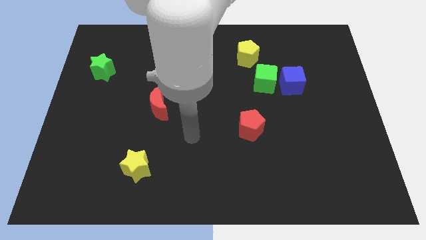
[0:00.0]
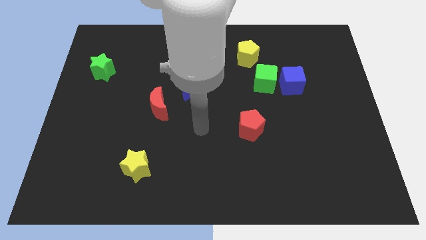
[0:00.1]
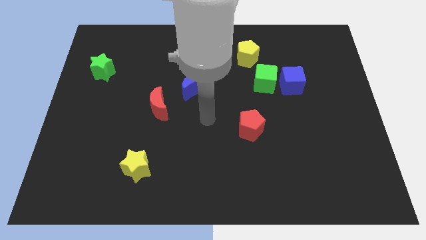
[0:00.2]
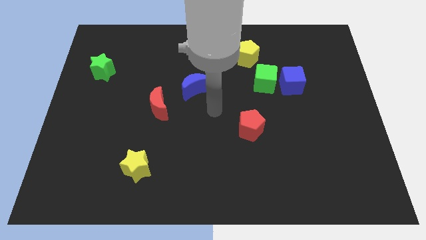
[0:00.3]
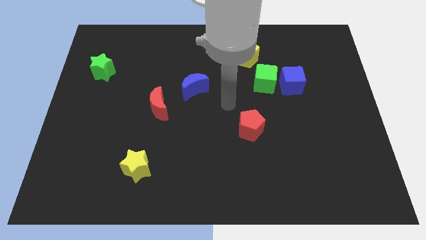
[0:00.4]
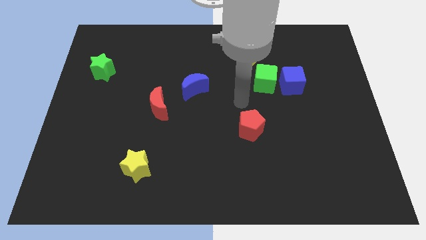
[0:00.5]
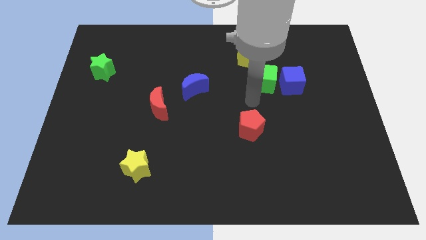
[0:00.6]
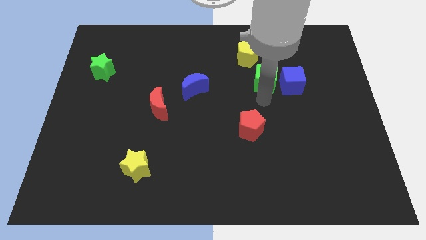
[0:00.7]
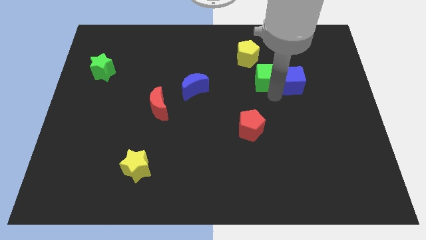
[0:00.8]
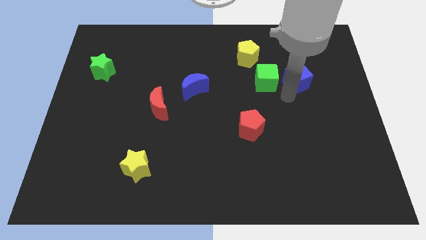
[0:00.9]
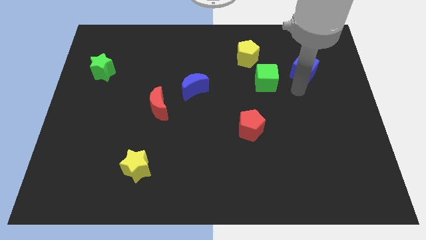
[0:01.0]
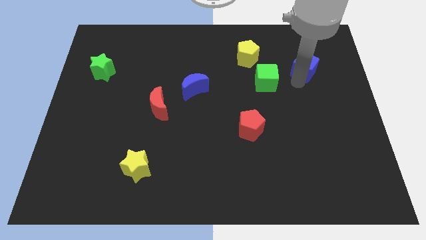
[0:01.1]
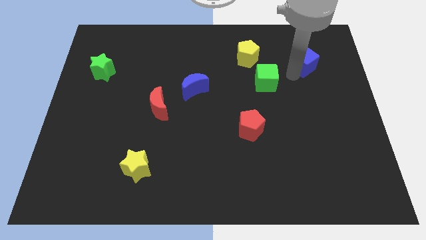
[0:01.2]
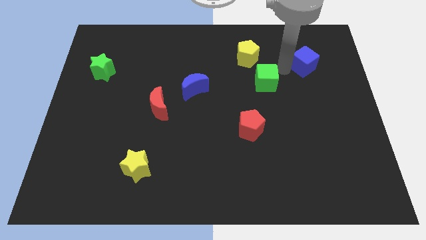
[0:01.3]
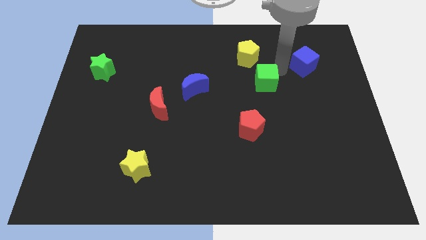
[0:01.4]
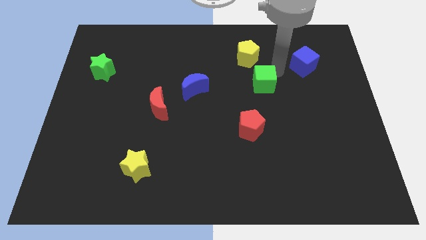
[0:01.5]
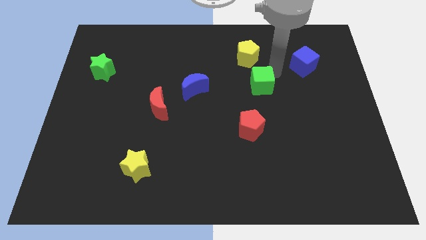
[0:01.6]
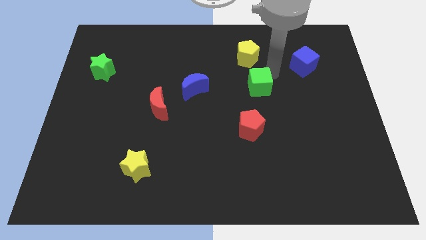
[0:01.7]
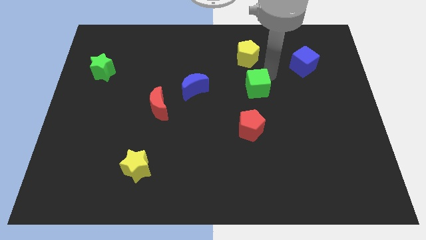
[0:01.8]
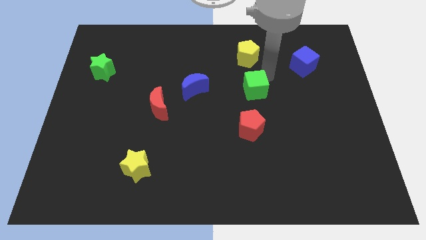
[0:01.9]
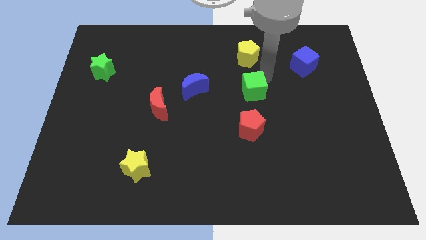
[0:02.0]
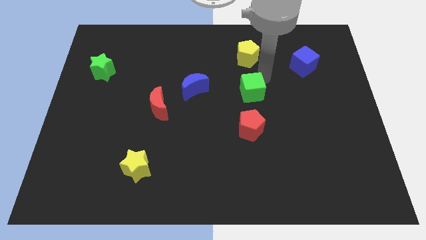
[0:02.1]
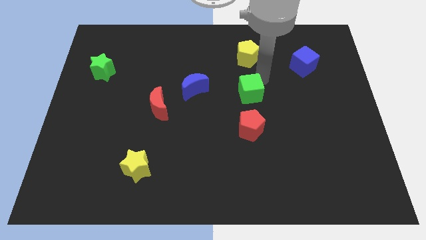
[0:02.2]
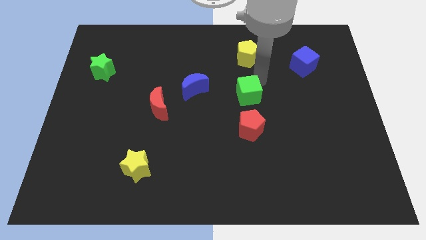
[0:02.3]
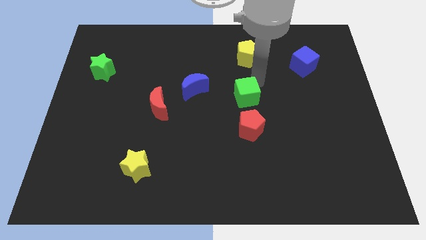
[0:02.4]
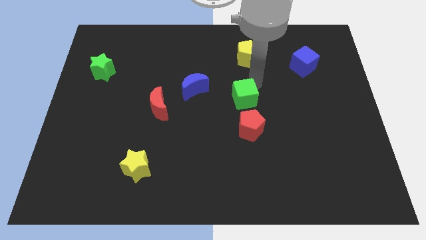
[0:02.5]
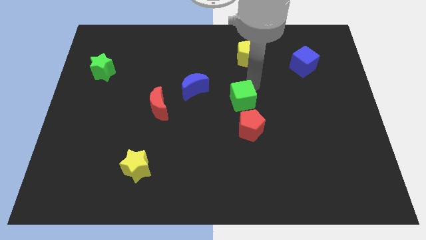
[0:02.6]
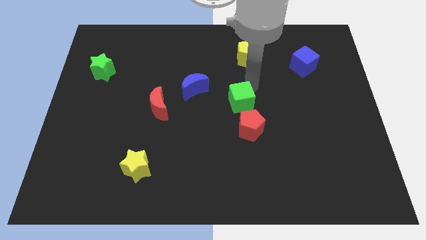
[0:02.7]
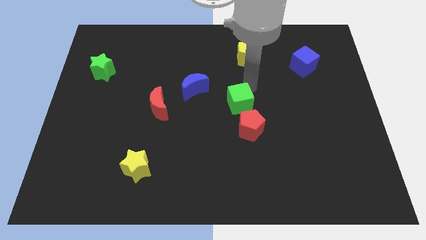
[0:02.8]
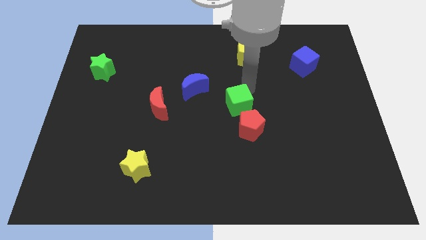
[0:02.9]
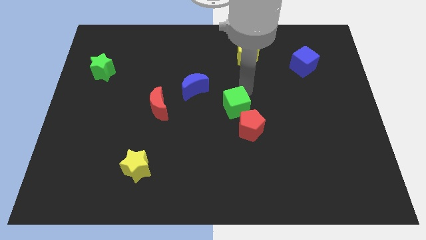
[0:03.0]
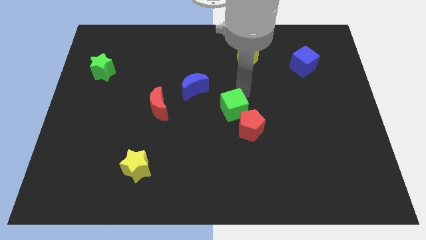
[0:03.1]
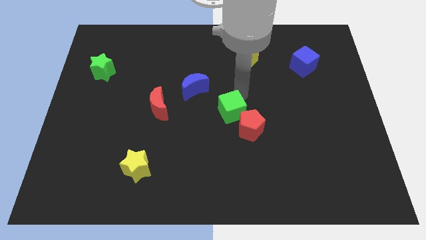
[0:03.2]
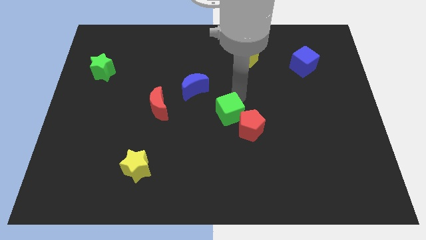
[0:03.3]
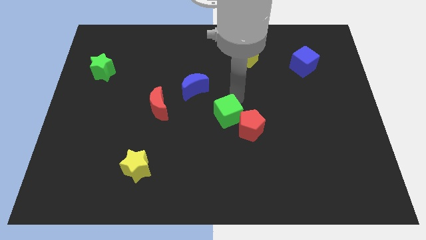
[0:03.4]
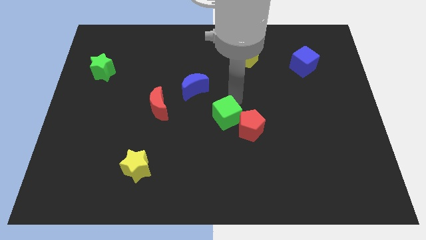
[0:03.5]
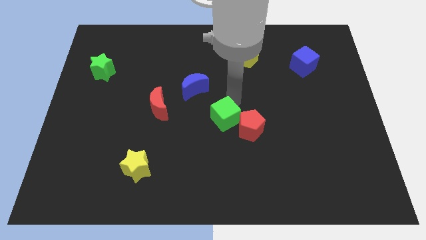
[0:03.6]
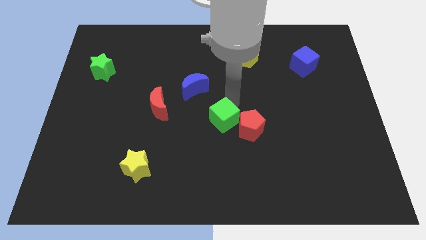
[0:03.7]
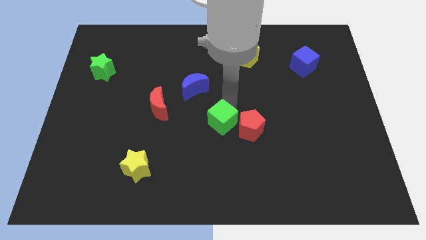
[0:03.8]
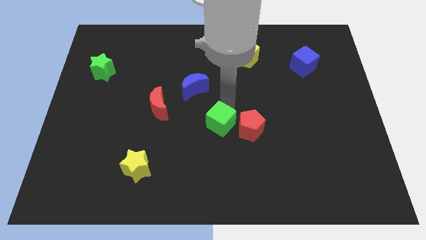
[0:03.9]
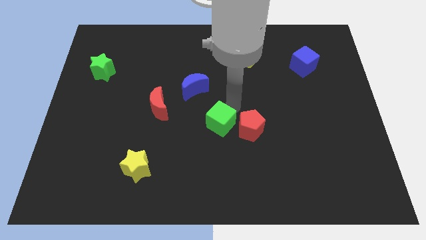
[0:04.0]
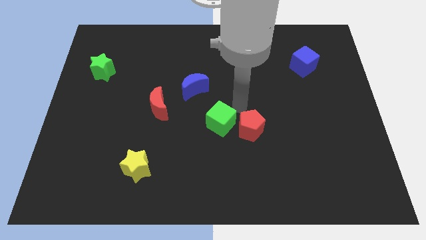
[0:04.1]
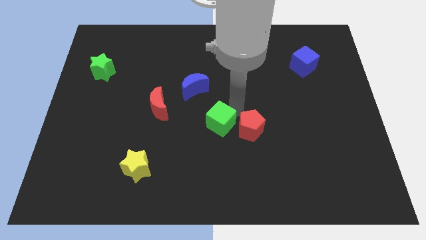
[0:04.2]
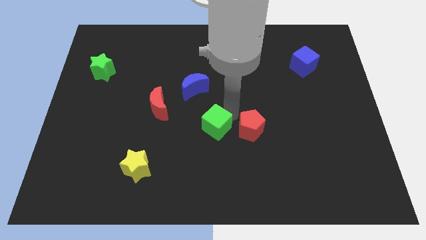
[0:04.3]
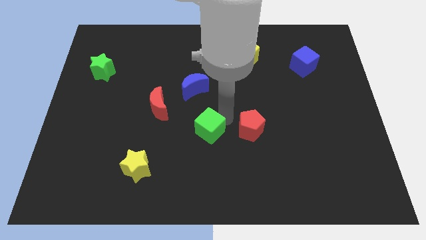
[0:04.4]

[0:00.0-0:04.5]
move the green cube diagonally down and to the left

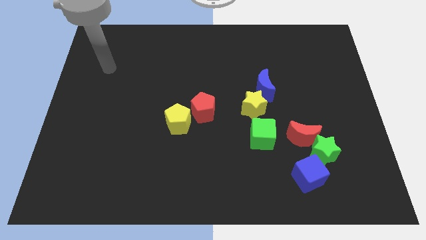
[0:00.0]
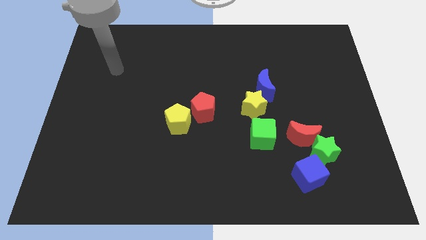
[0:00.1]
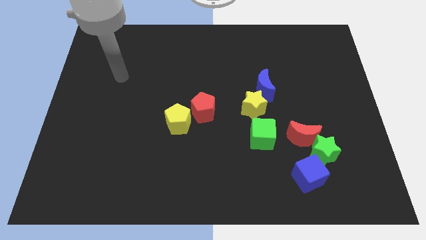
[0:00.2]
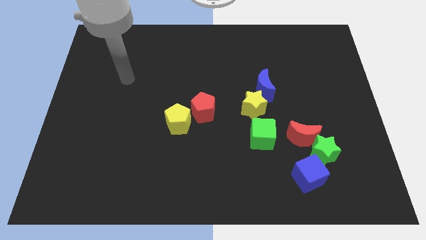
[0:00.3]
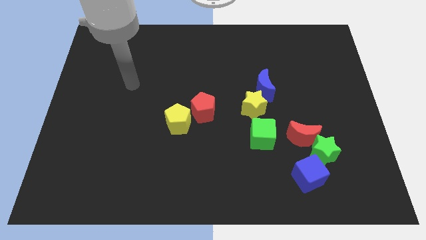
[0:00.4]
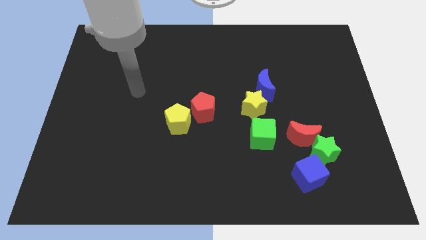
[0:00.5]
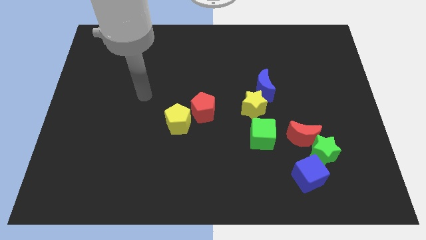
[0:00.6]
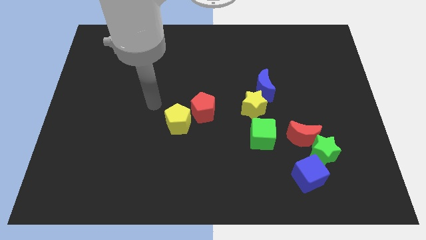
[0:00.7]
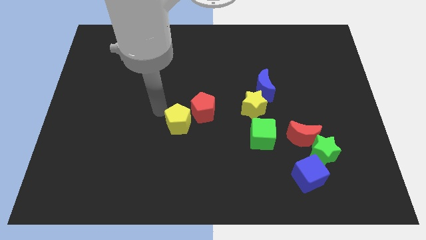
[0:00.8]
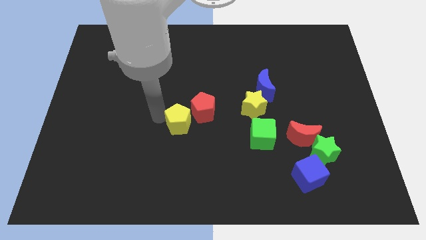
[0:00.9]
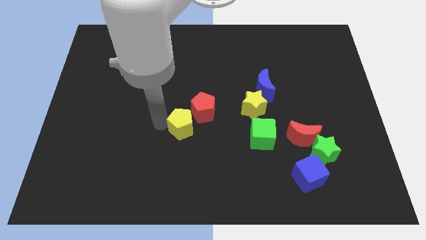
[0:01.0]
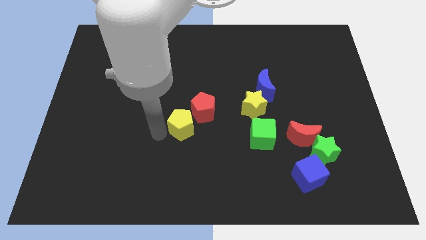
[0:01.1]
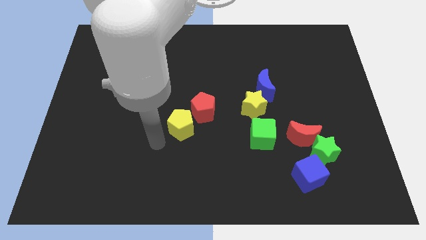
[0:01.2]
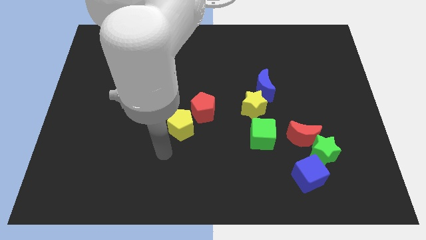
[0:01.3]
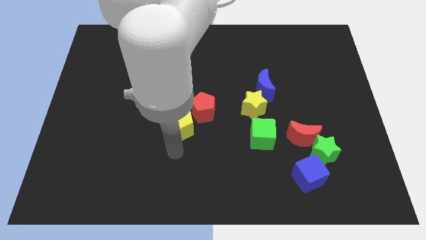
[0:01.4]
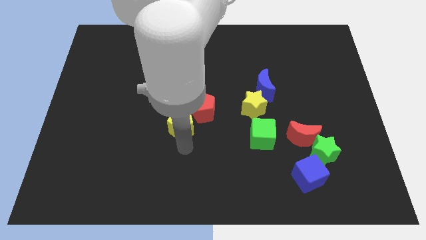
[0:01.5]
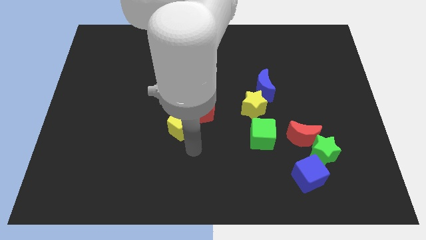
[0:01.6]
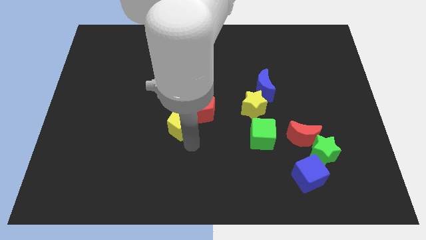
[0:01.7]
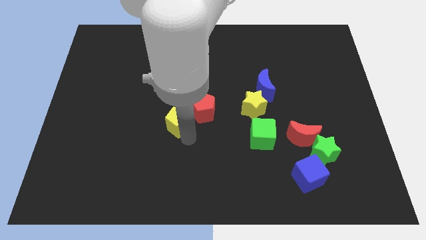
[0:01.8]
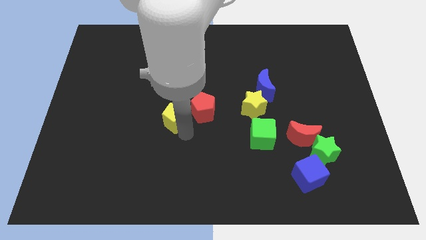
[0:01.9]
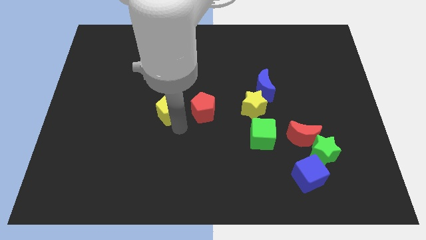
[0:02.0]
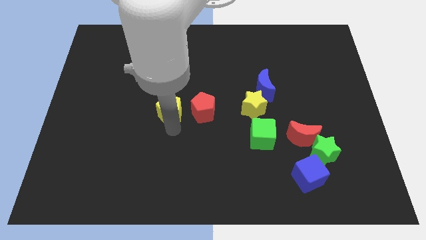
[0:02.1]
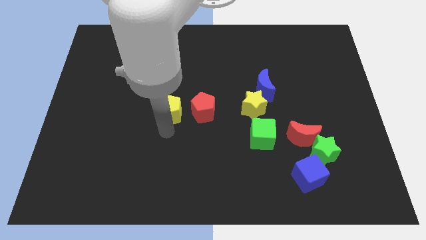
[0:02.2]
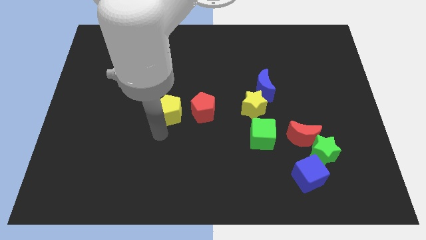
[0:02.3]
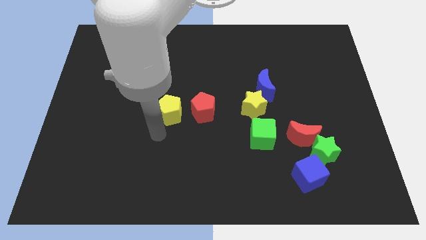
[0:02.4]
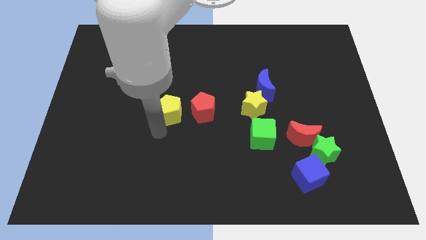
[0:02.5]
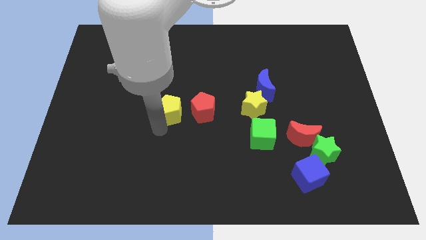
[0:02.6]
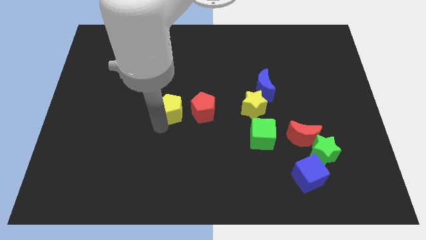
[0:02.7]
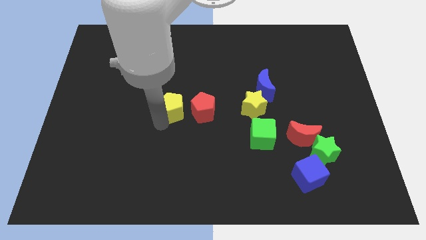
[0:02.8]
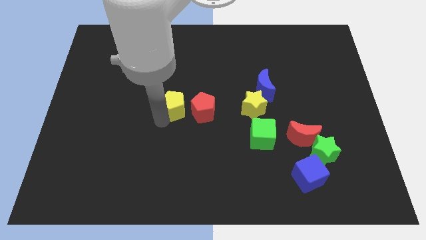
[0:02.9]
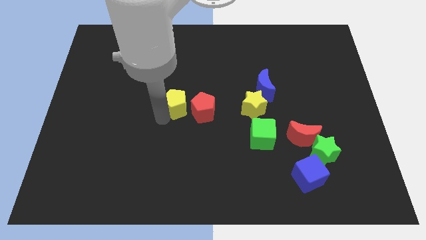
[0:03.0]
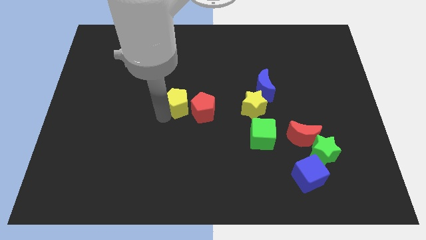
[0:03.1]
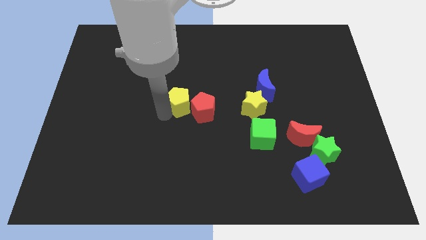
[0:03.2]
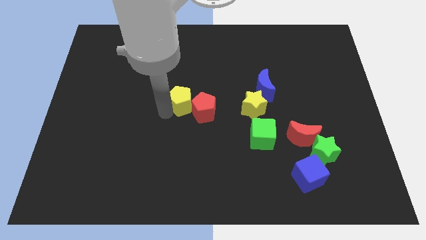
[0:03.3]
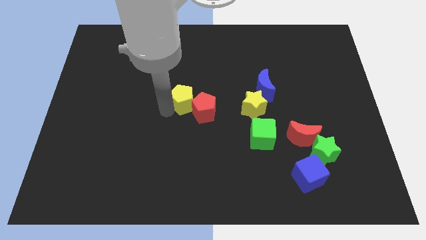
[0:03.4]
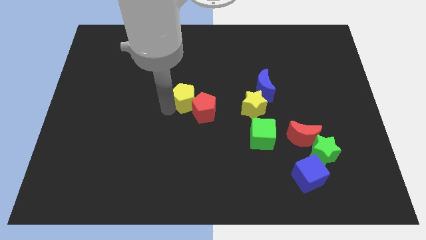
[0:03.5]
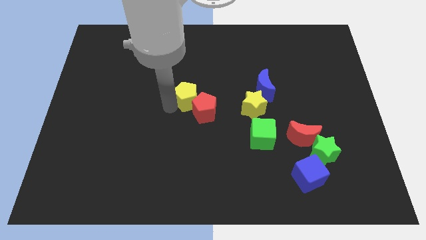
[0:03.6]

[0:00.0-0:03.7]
move the yellow pentagon a little upwards
